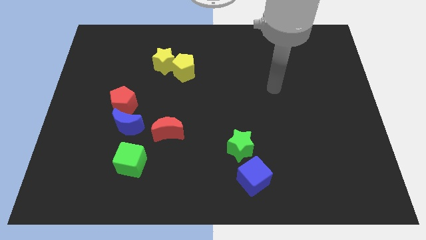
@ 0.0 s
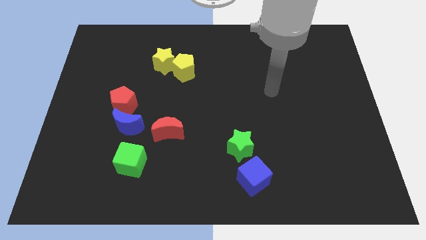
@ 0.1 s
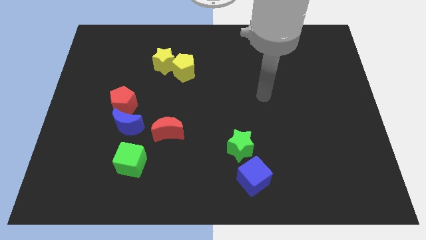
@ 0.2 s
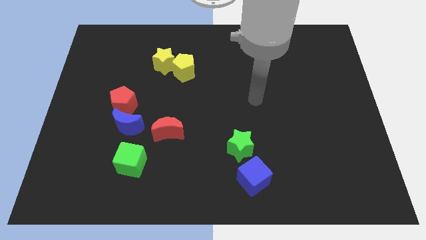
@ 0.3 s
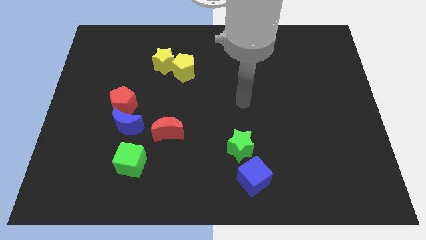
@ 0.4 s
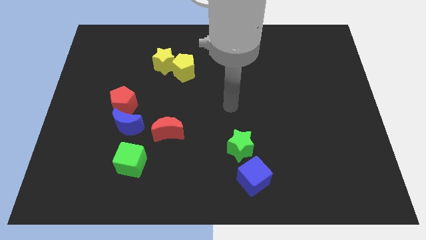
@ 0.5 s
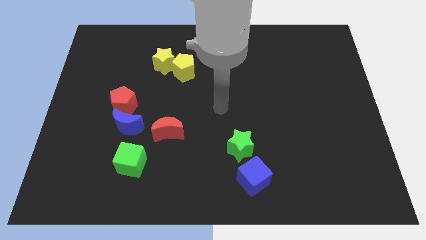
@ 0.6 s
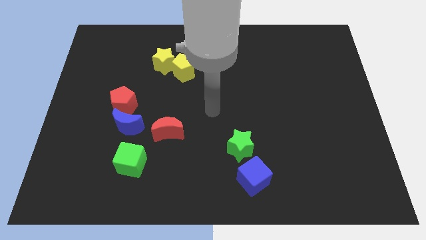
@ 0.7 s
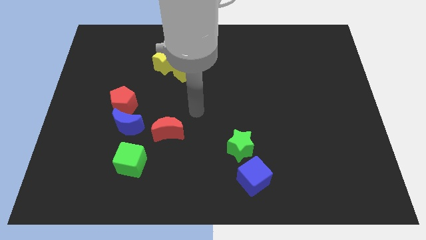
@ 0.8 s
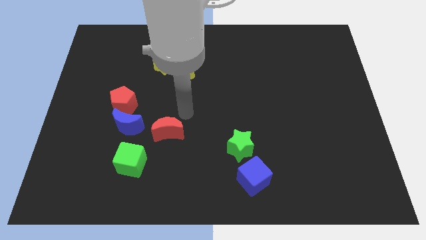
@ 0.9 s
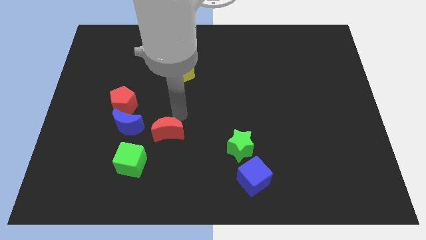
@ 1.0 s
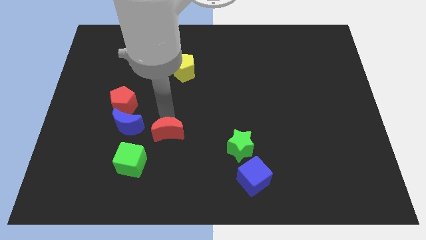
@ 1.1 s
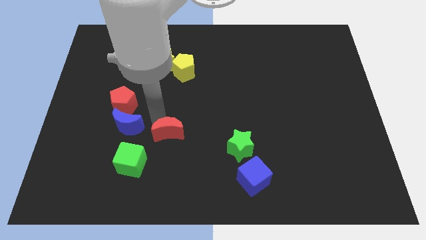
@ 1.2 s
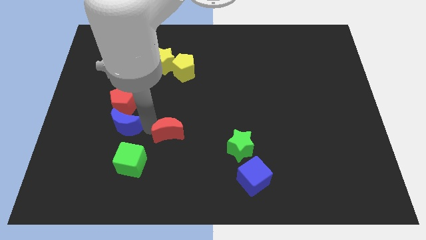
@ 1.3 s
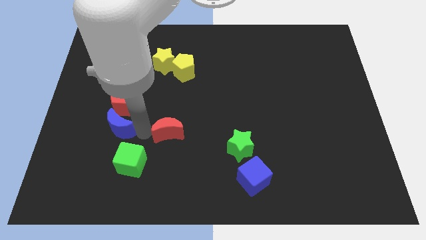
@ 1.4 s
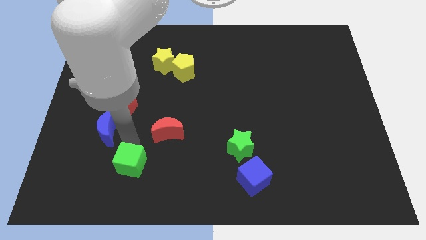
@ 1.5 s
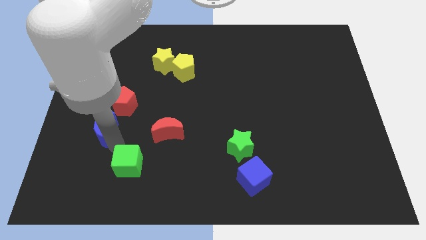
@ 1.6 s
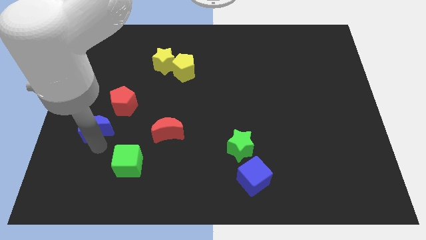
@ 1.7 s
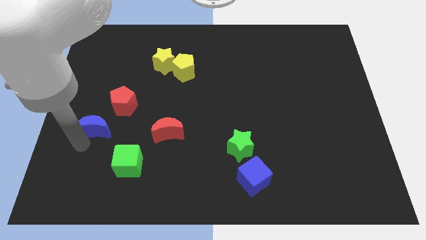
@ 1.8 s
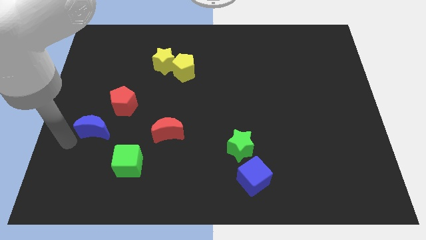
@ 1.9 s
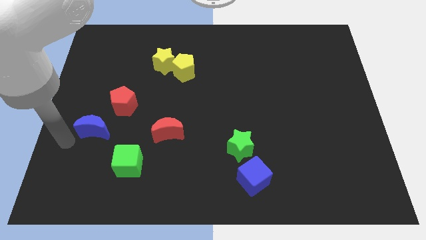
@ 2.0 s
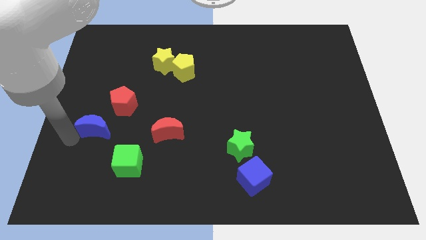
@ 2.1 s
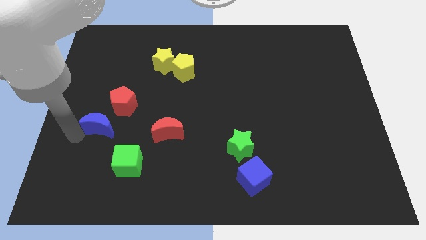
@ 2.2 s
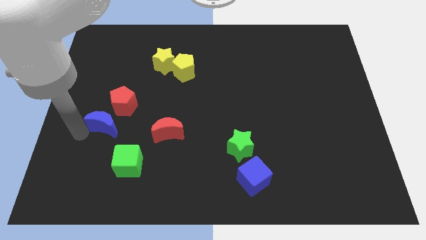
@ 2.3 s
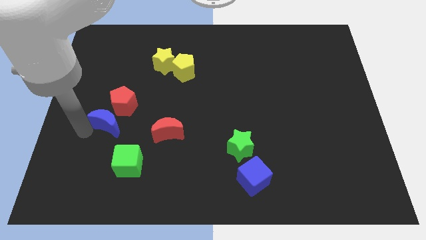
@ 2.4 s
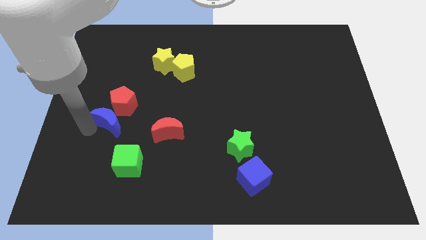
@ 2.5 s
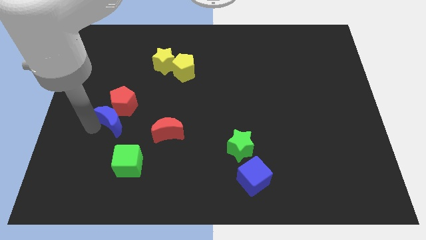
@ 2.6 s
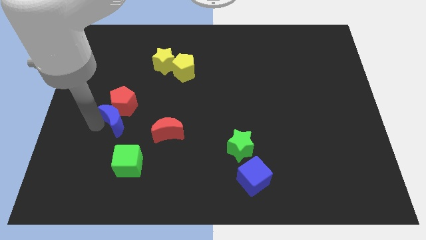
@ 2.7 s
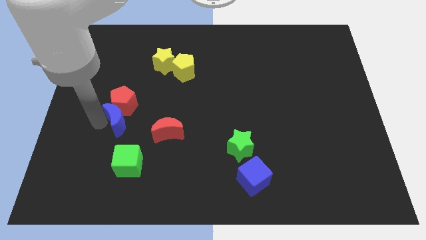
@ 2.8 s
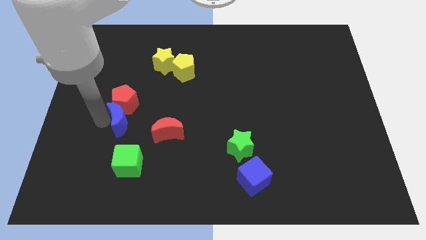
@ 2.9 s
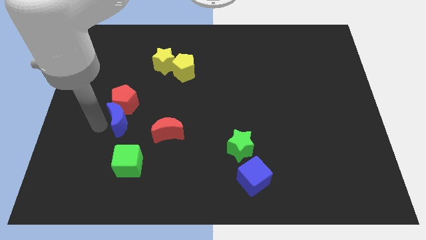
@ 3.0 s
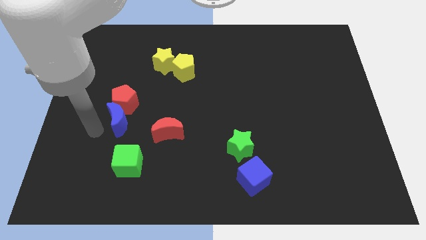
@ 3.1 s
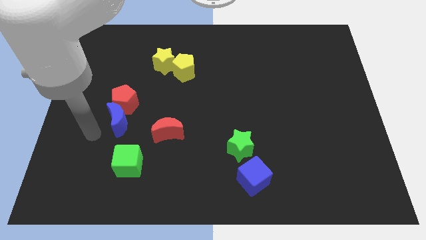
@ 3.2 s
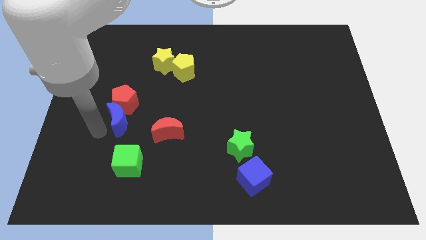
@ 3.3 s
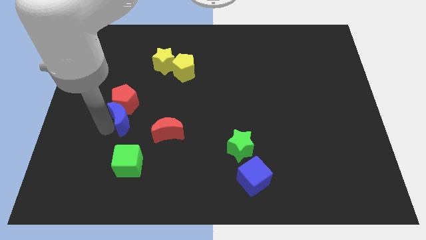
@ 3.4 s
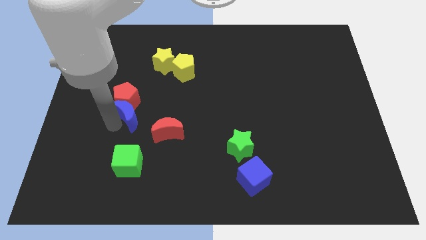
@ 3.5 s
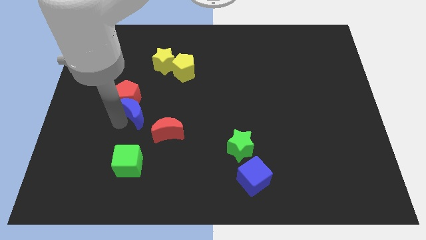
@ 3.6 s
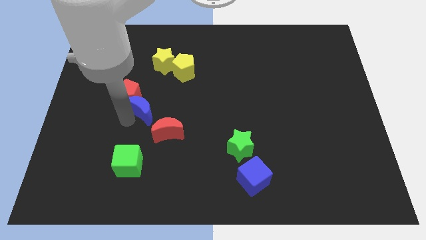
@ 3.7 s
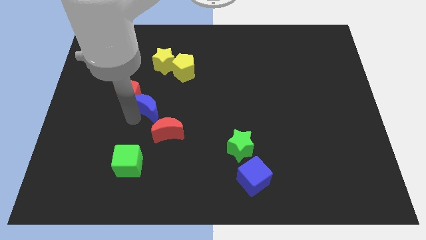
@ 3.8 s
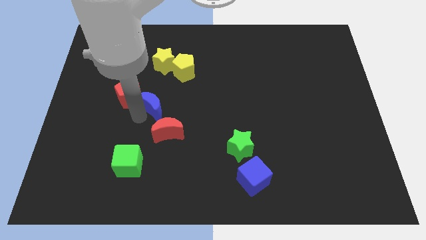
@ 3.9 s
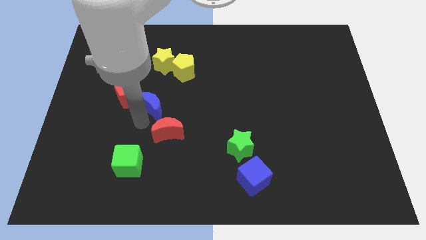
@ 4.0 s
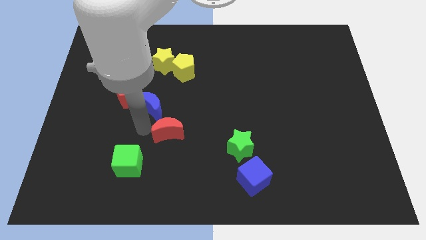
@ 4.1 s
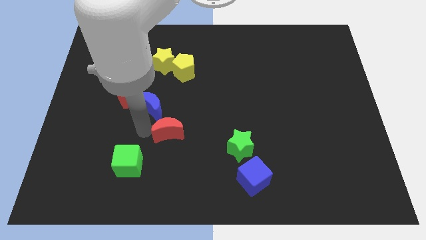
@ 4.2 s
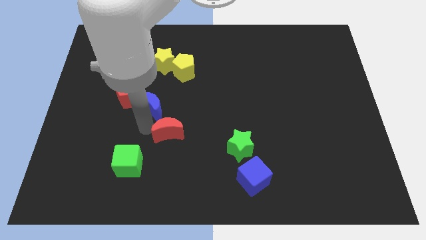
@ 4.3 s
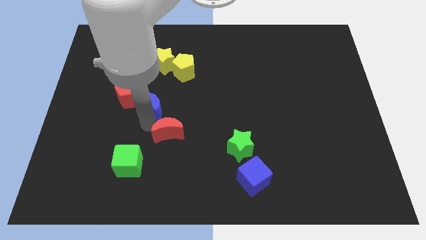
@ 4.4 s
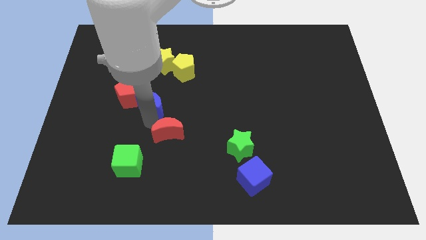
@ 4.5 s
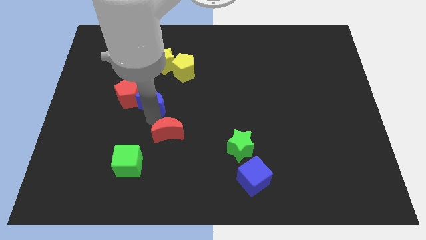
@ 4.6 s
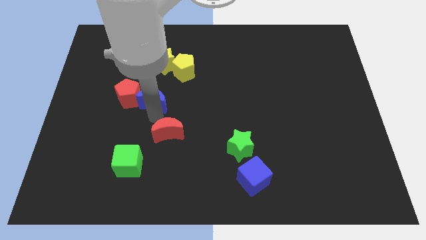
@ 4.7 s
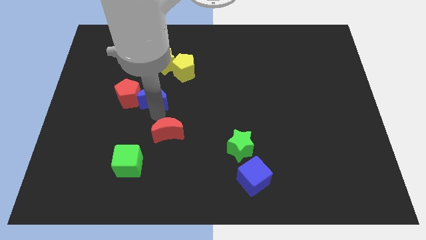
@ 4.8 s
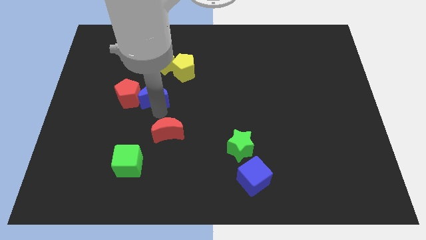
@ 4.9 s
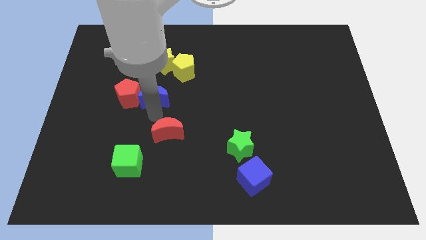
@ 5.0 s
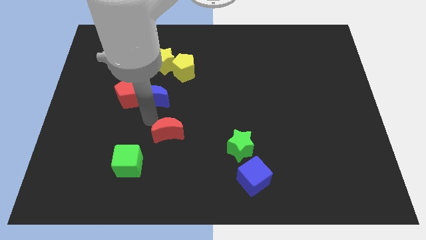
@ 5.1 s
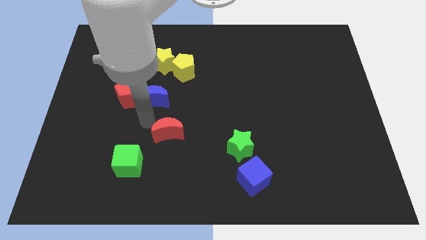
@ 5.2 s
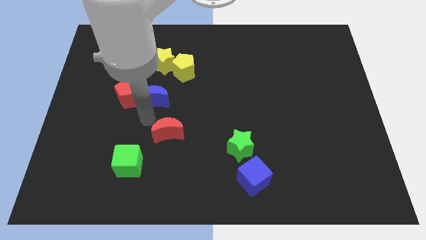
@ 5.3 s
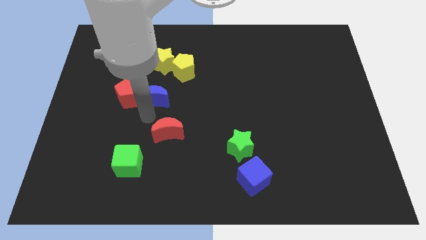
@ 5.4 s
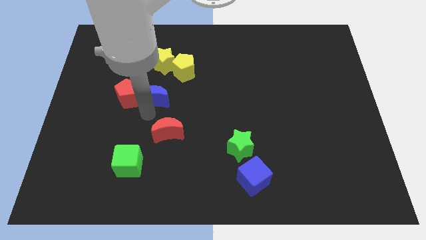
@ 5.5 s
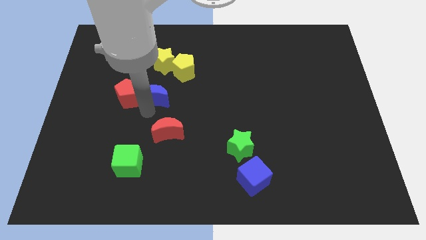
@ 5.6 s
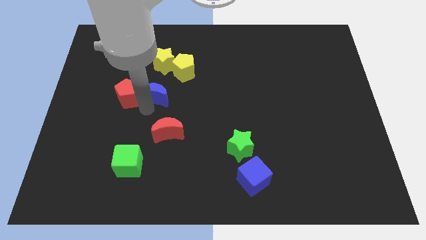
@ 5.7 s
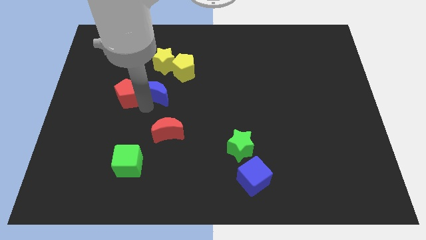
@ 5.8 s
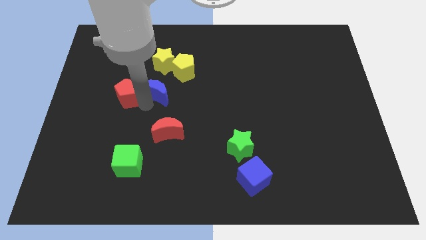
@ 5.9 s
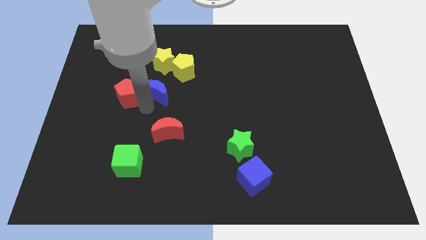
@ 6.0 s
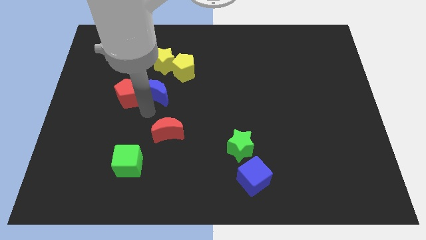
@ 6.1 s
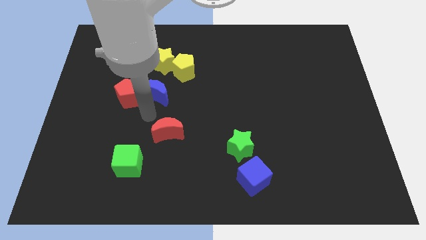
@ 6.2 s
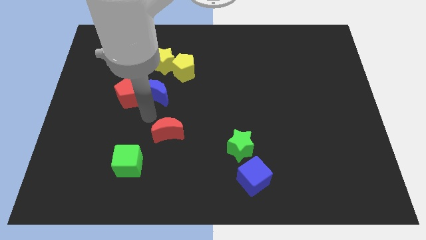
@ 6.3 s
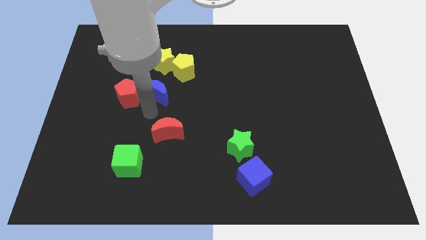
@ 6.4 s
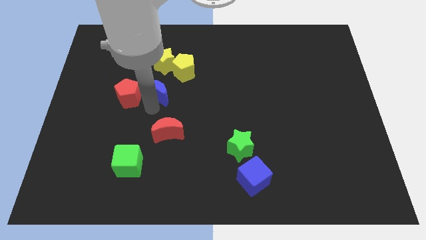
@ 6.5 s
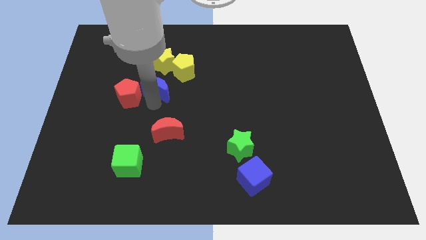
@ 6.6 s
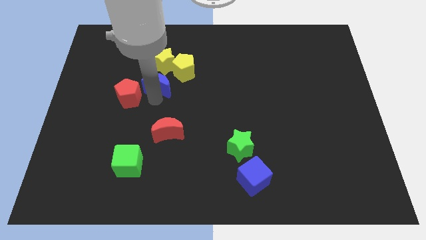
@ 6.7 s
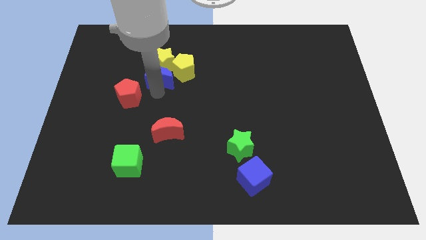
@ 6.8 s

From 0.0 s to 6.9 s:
push the blue moon close to the yellow star

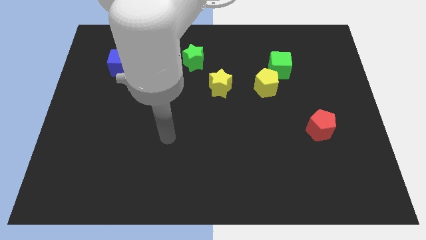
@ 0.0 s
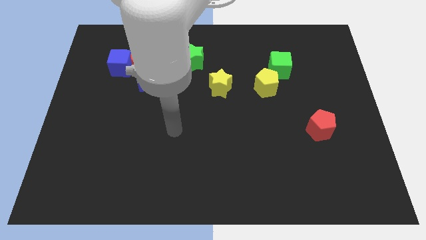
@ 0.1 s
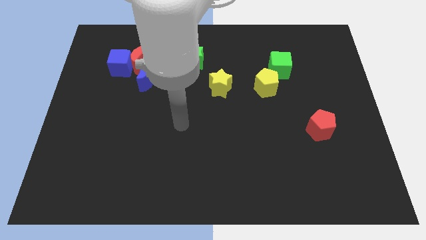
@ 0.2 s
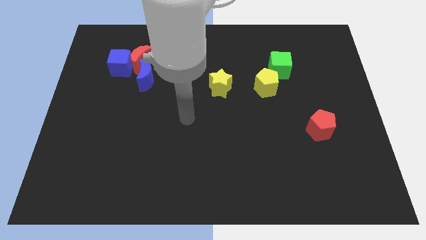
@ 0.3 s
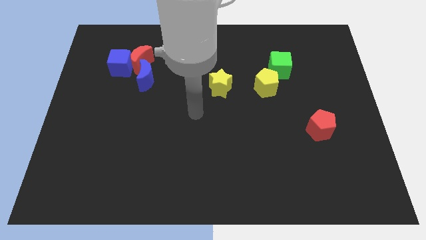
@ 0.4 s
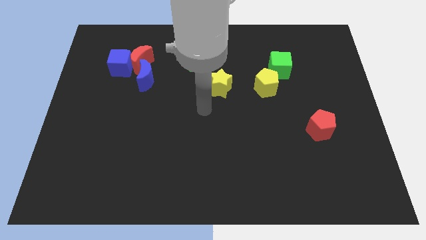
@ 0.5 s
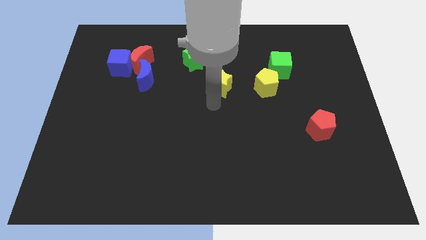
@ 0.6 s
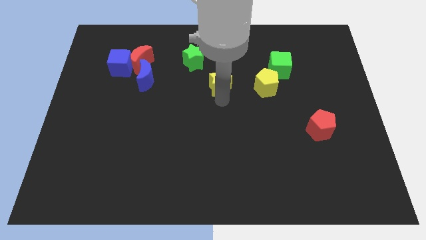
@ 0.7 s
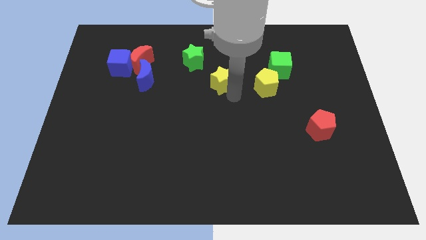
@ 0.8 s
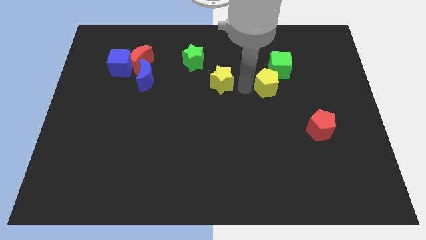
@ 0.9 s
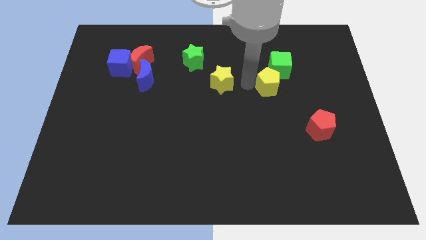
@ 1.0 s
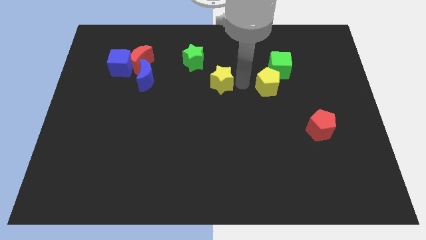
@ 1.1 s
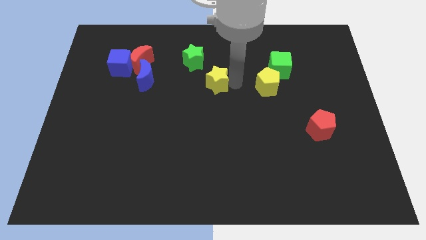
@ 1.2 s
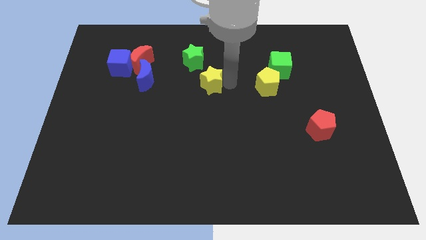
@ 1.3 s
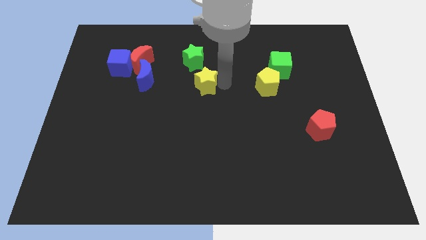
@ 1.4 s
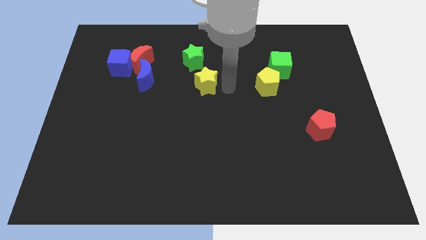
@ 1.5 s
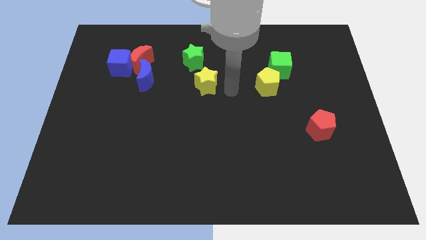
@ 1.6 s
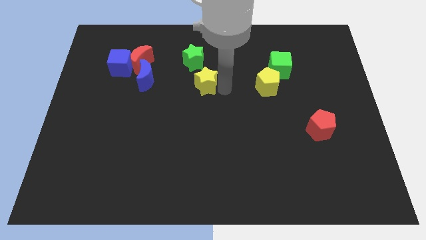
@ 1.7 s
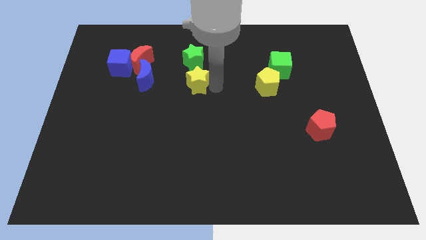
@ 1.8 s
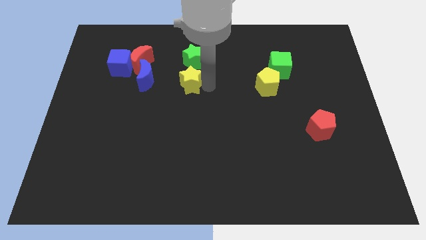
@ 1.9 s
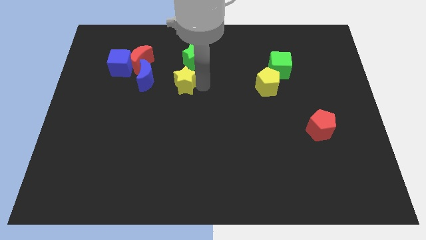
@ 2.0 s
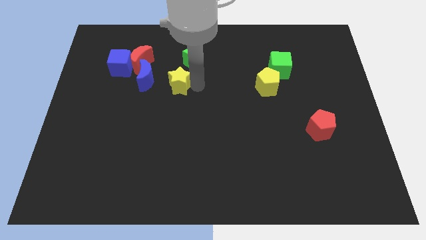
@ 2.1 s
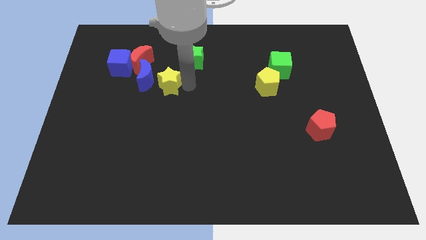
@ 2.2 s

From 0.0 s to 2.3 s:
move the yellow star towards the blue moon
